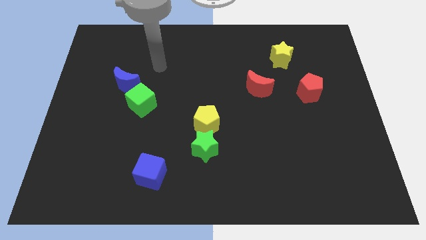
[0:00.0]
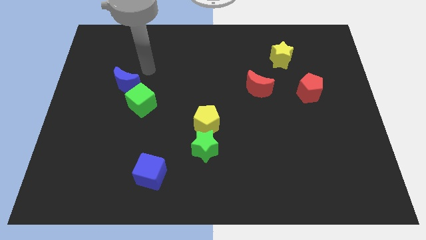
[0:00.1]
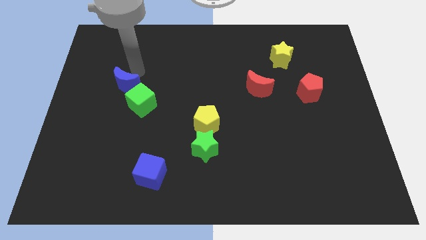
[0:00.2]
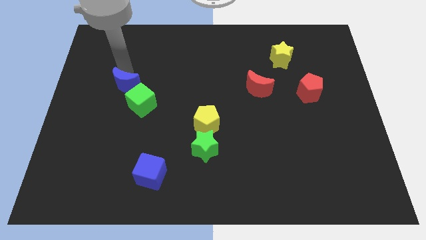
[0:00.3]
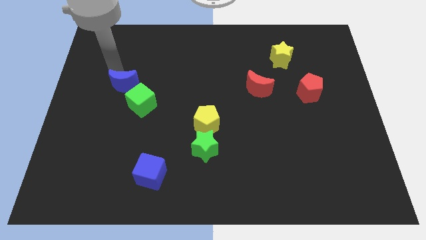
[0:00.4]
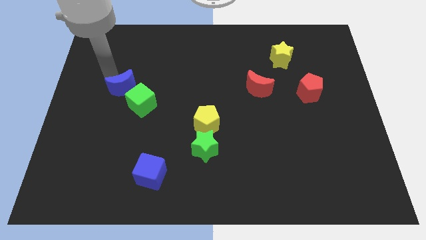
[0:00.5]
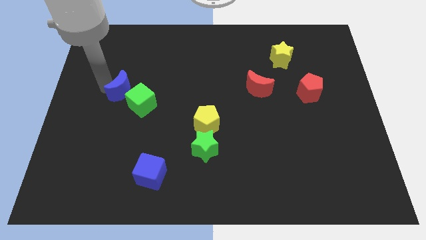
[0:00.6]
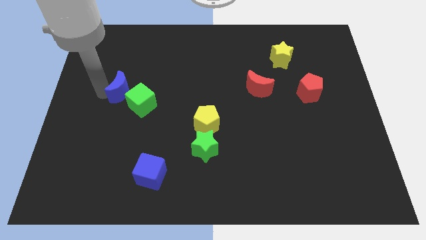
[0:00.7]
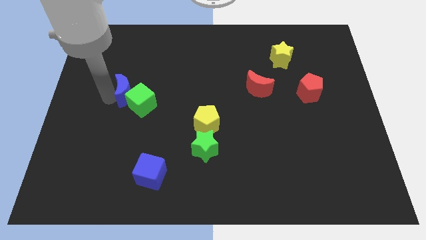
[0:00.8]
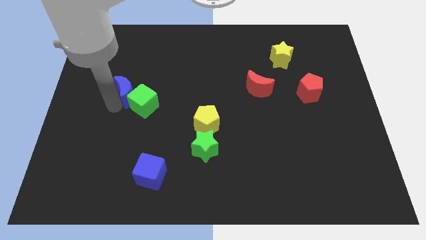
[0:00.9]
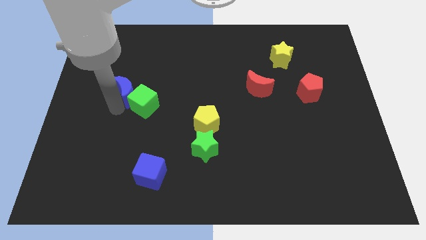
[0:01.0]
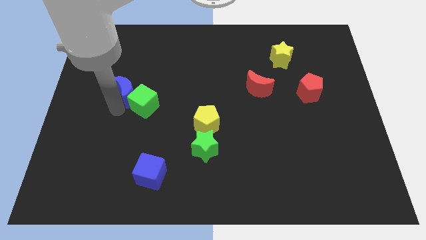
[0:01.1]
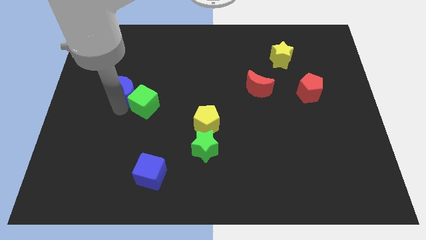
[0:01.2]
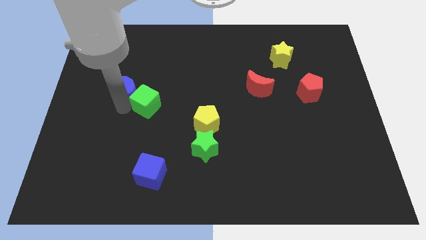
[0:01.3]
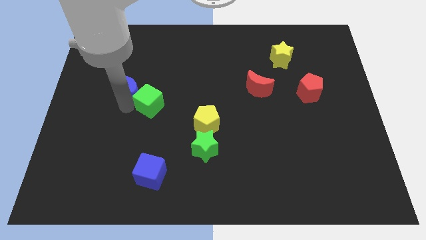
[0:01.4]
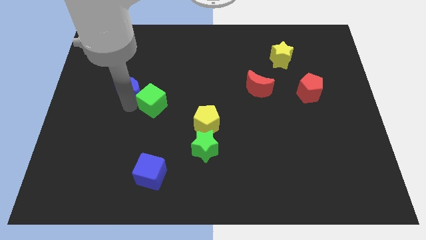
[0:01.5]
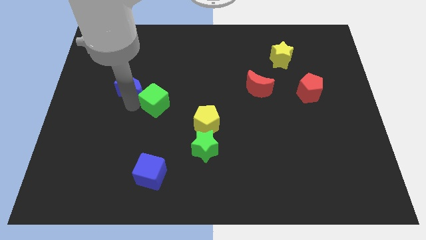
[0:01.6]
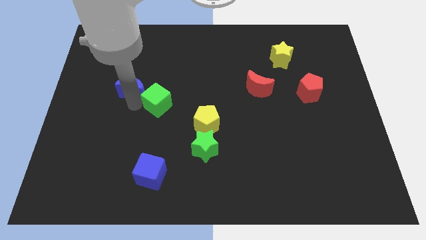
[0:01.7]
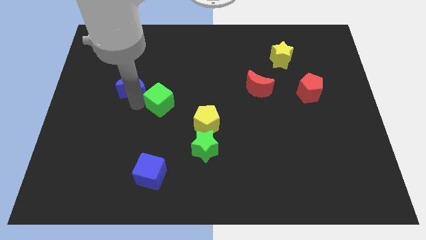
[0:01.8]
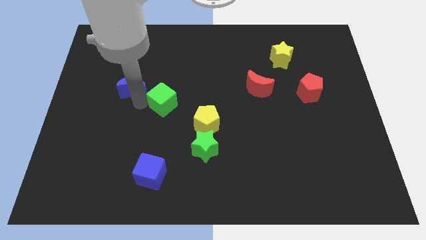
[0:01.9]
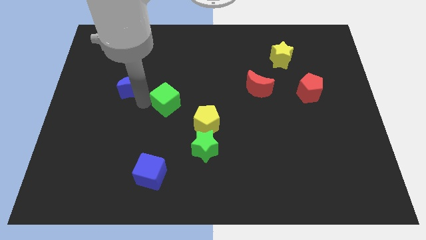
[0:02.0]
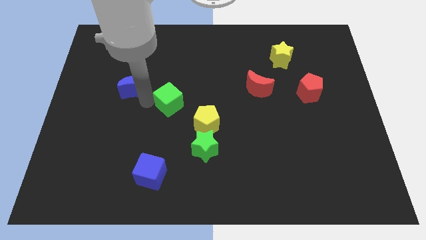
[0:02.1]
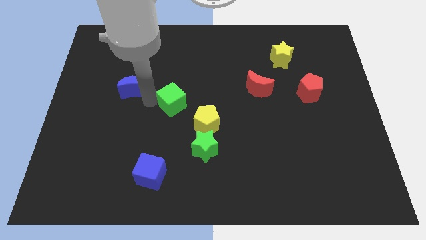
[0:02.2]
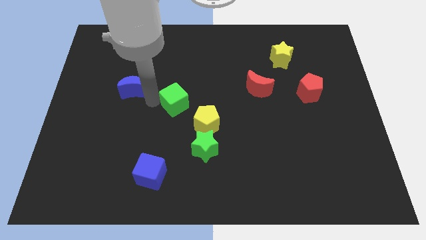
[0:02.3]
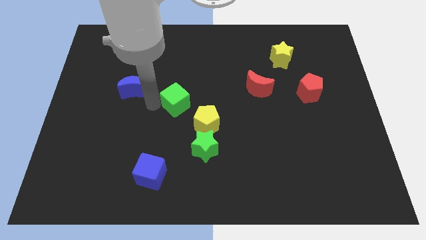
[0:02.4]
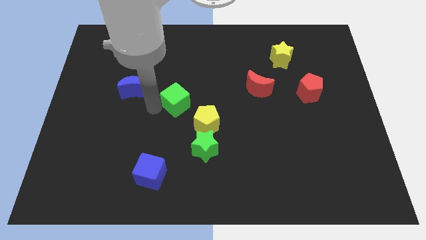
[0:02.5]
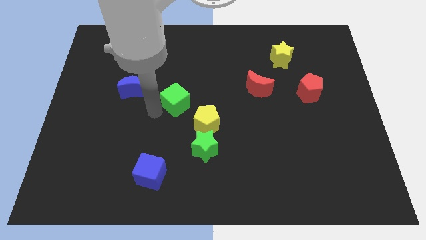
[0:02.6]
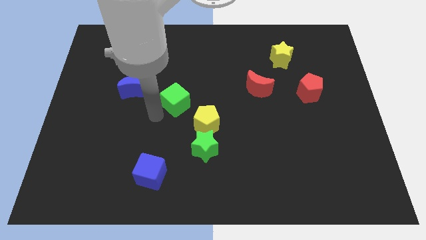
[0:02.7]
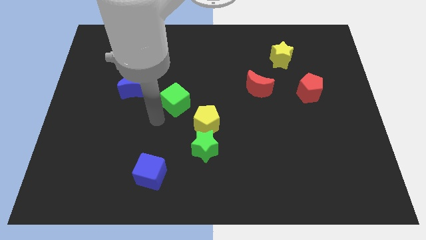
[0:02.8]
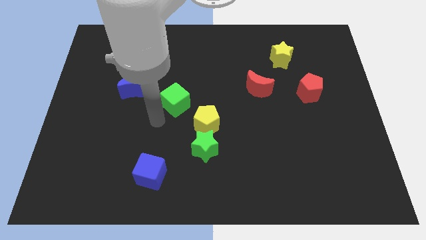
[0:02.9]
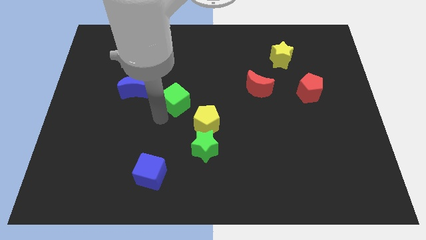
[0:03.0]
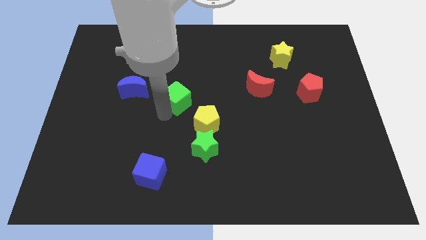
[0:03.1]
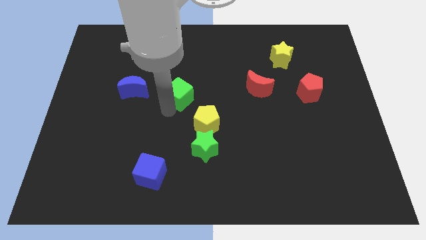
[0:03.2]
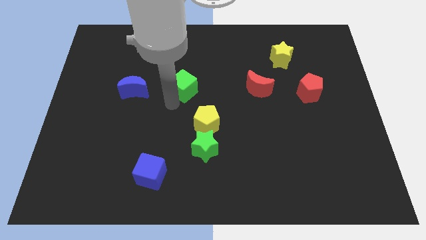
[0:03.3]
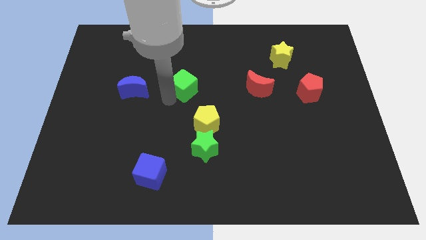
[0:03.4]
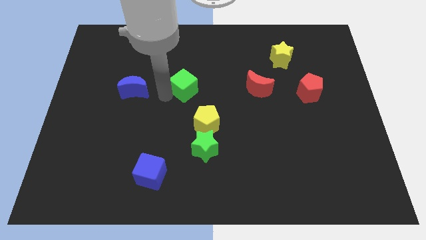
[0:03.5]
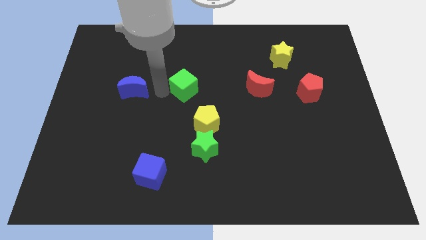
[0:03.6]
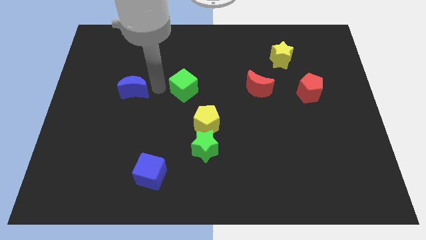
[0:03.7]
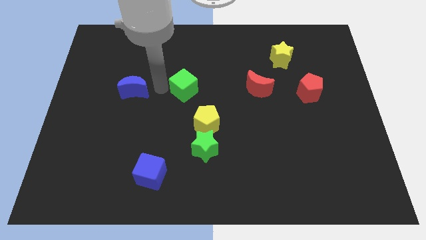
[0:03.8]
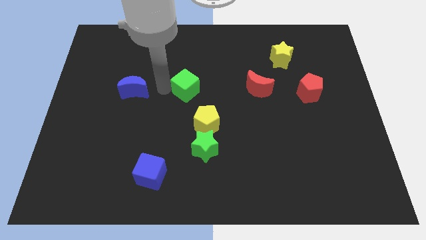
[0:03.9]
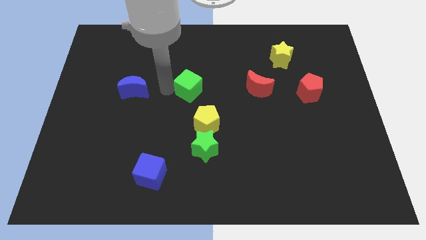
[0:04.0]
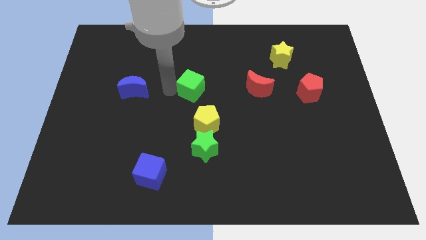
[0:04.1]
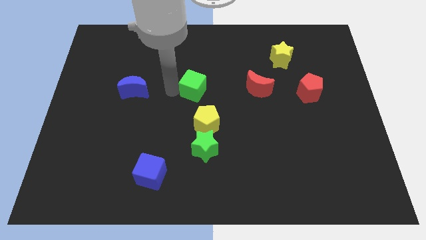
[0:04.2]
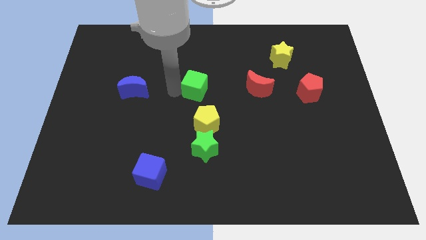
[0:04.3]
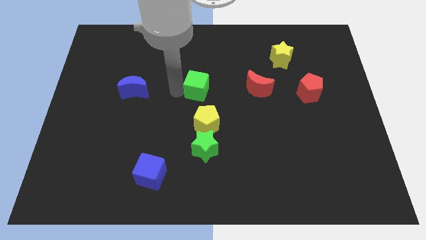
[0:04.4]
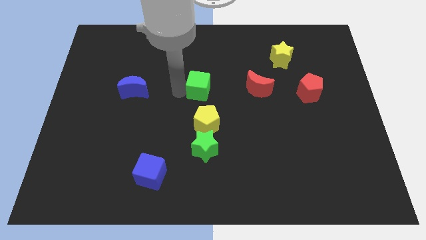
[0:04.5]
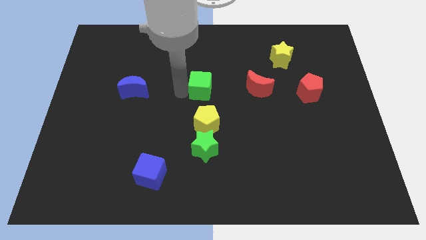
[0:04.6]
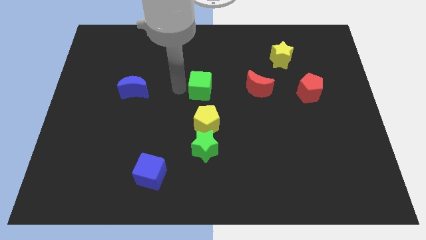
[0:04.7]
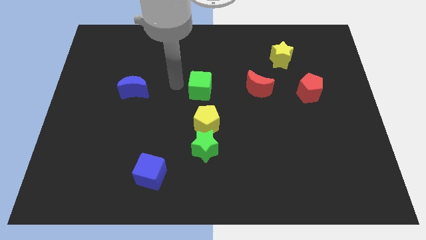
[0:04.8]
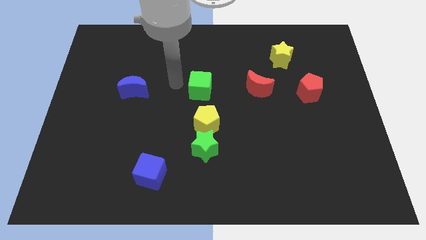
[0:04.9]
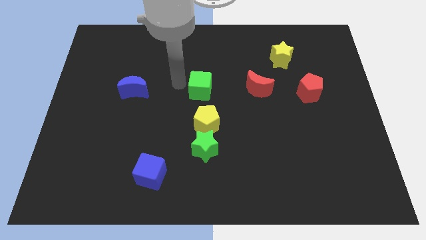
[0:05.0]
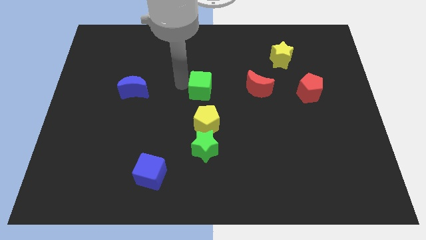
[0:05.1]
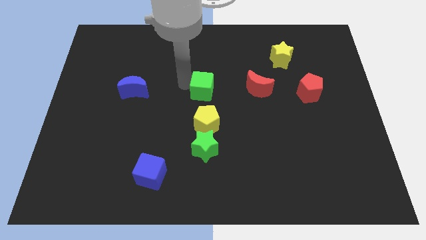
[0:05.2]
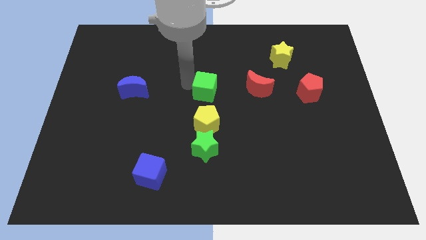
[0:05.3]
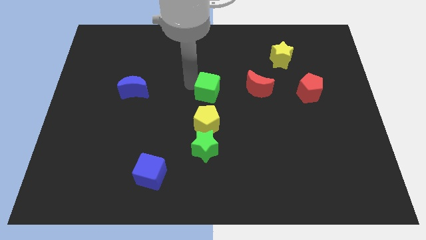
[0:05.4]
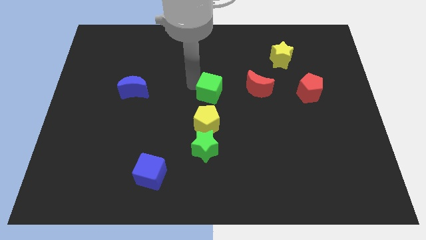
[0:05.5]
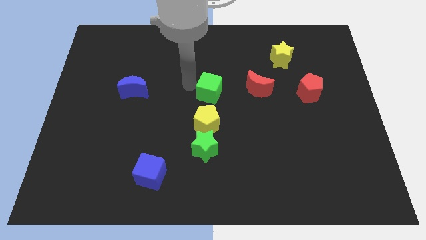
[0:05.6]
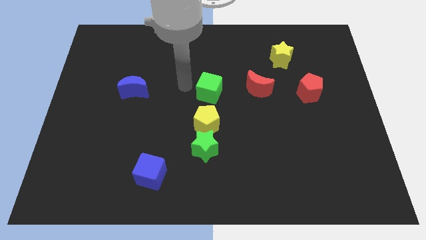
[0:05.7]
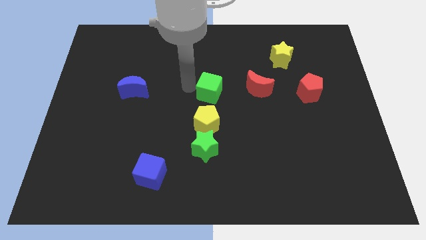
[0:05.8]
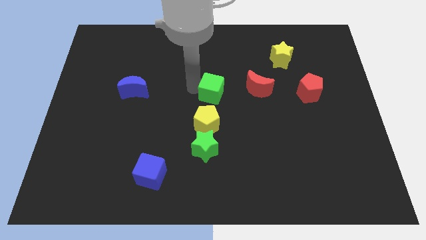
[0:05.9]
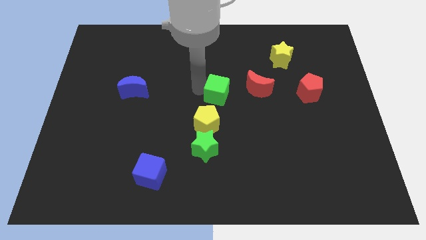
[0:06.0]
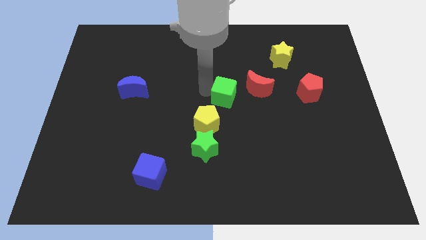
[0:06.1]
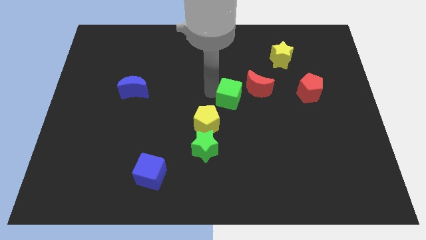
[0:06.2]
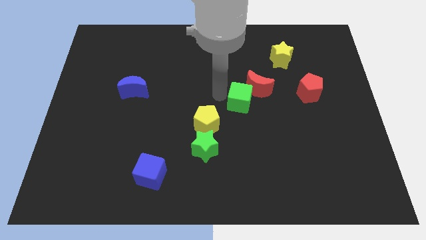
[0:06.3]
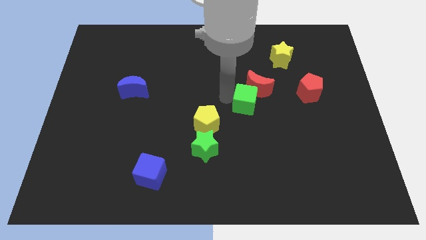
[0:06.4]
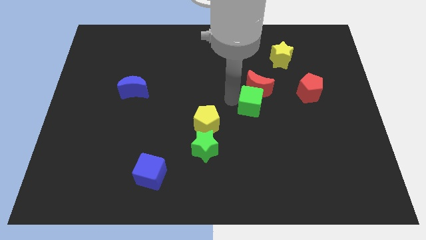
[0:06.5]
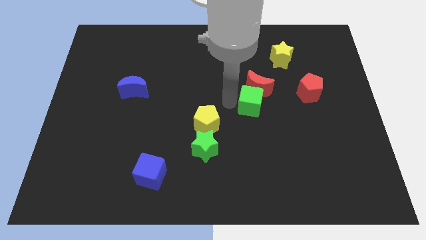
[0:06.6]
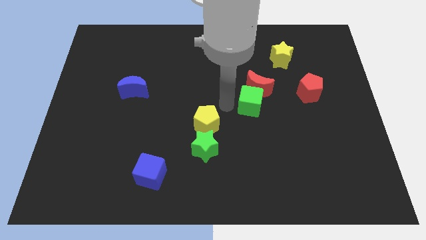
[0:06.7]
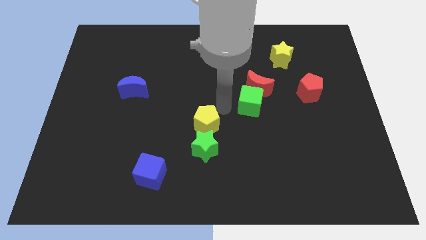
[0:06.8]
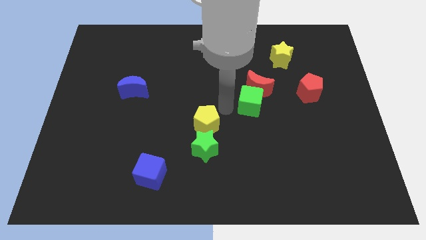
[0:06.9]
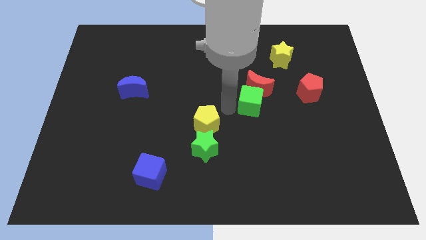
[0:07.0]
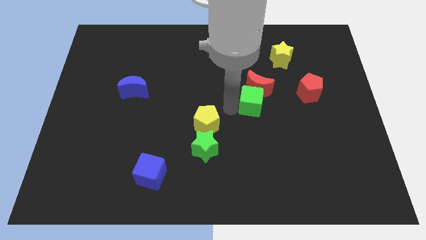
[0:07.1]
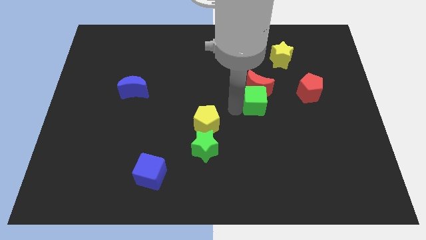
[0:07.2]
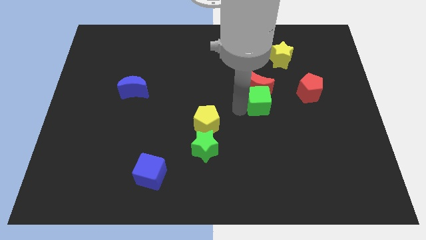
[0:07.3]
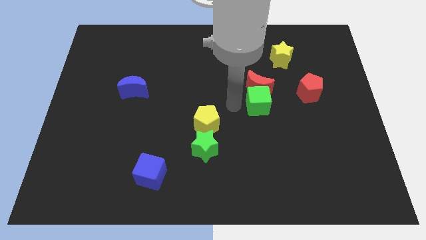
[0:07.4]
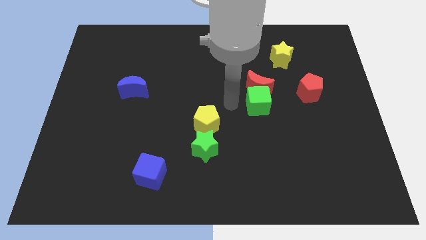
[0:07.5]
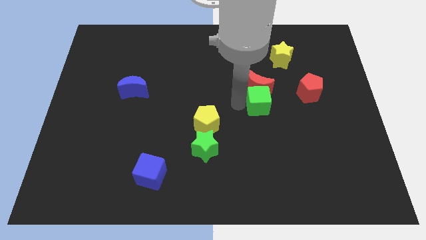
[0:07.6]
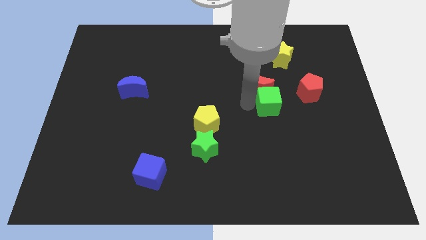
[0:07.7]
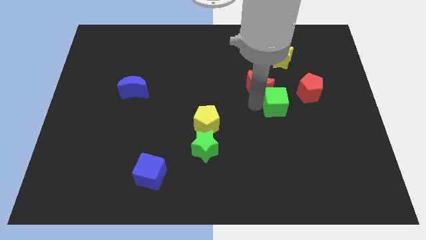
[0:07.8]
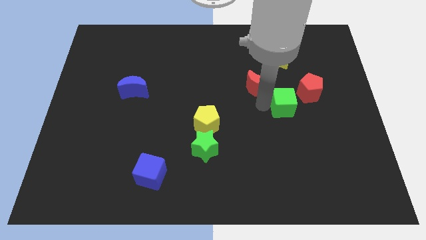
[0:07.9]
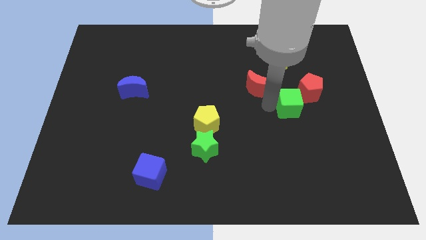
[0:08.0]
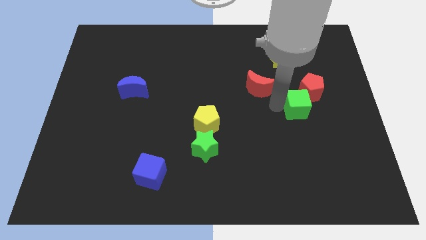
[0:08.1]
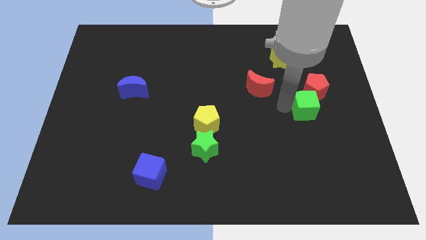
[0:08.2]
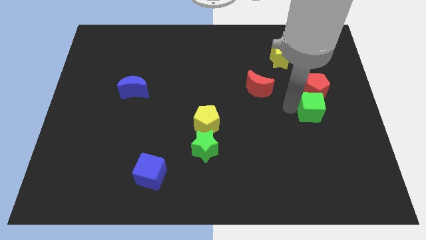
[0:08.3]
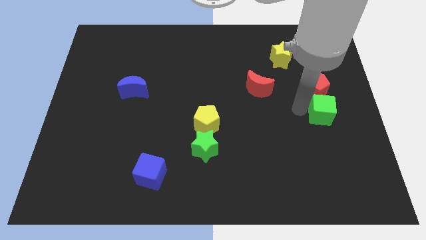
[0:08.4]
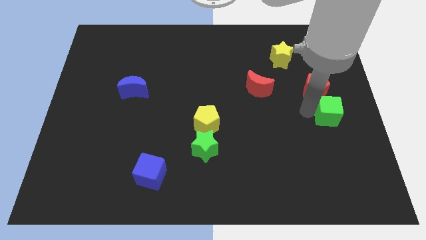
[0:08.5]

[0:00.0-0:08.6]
push the green cube to the center right
